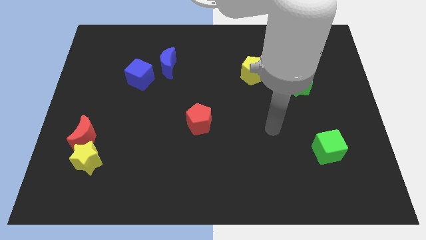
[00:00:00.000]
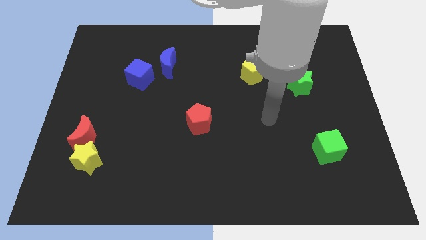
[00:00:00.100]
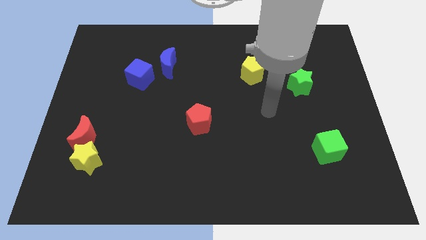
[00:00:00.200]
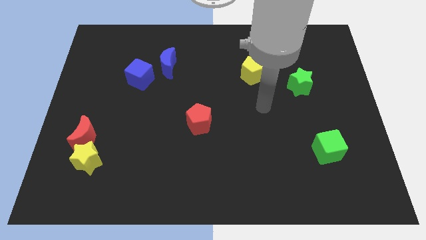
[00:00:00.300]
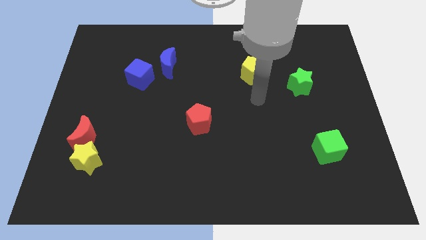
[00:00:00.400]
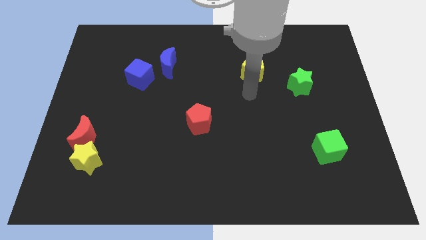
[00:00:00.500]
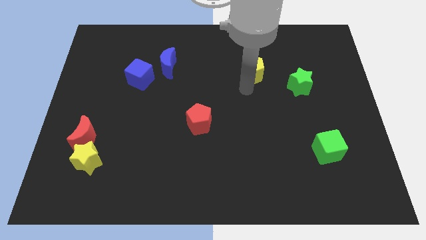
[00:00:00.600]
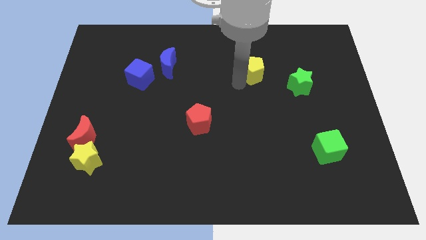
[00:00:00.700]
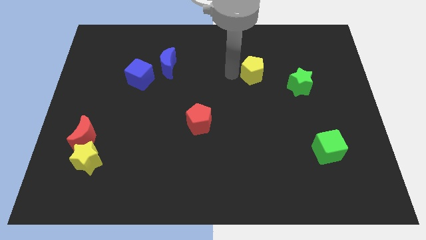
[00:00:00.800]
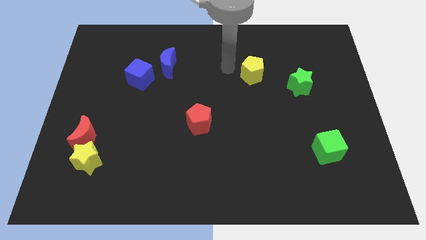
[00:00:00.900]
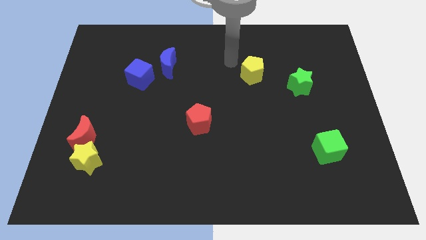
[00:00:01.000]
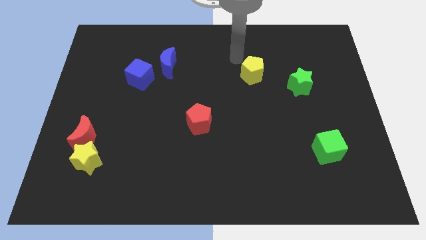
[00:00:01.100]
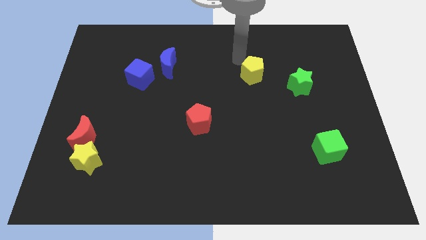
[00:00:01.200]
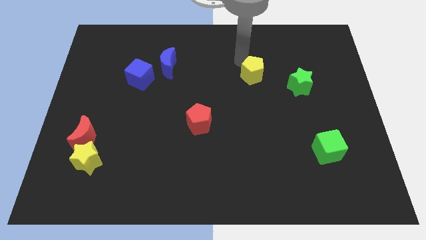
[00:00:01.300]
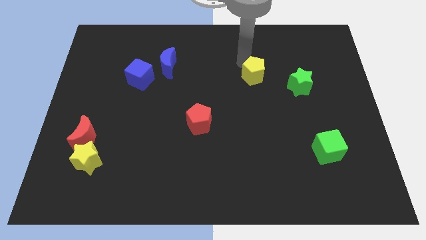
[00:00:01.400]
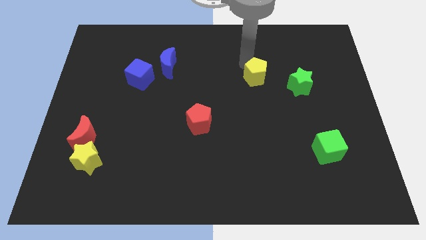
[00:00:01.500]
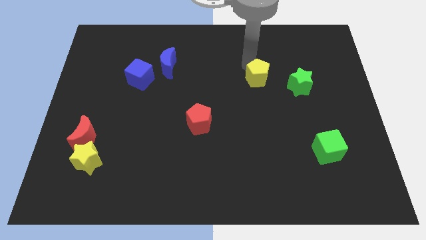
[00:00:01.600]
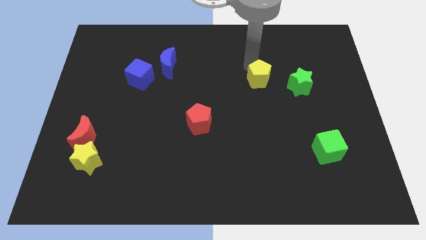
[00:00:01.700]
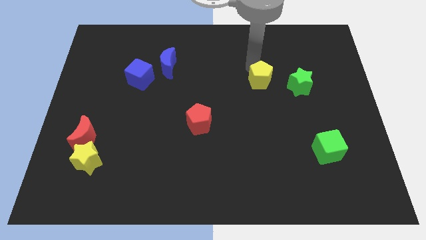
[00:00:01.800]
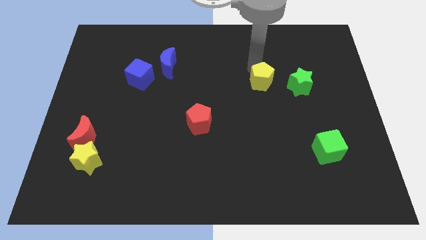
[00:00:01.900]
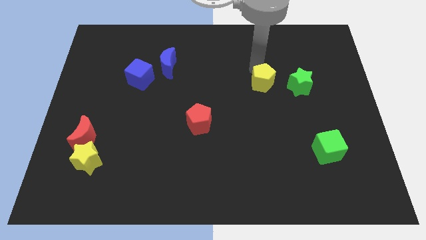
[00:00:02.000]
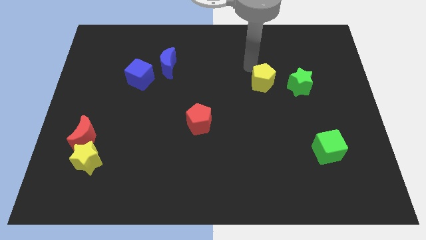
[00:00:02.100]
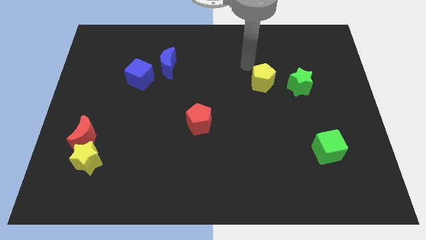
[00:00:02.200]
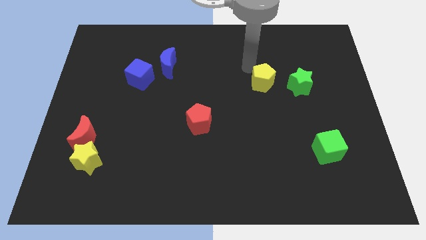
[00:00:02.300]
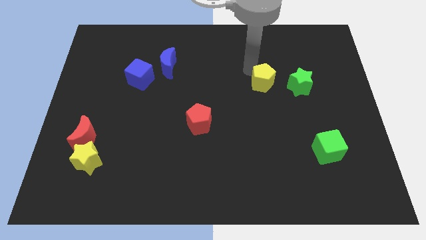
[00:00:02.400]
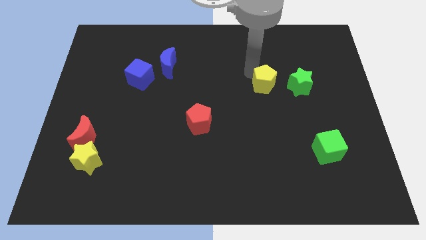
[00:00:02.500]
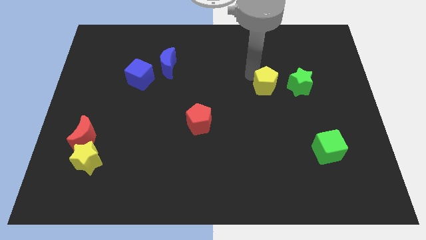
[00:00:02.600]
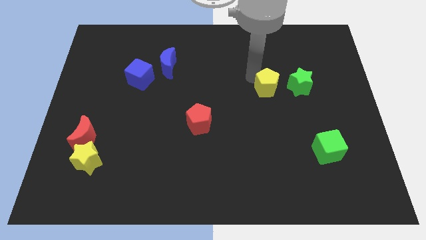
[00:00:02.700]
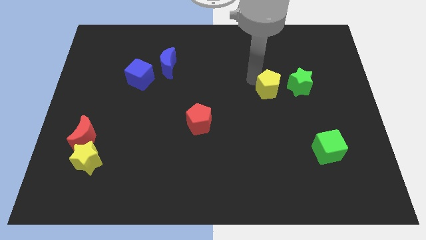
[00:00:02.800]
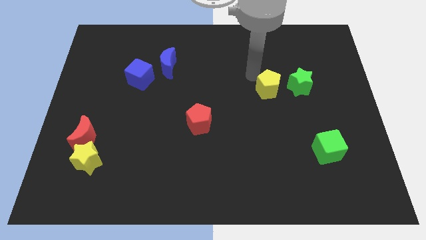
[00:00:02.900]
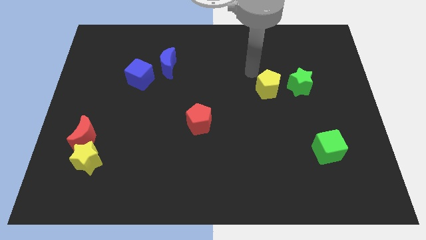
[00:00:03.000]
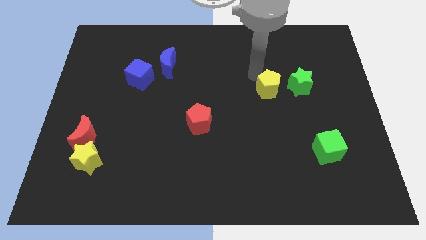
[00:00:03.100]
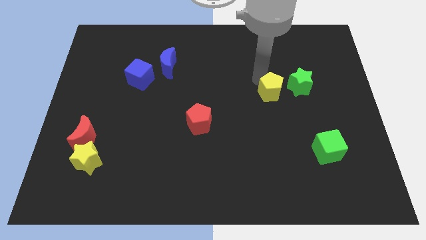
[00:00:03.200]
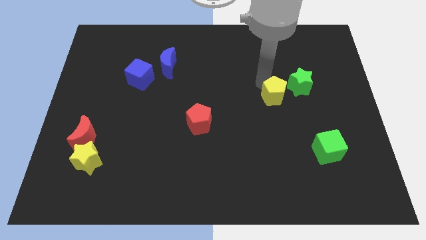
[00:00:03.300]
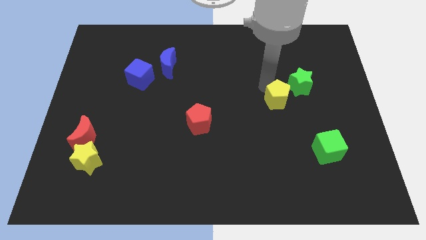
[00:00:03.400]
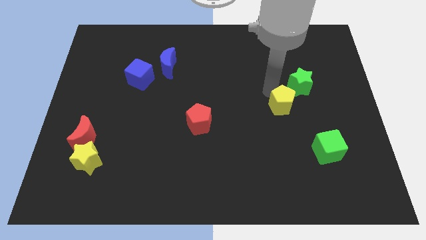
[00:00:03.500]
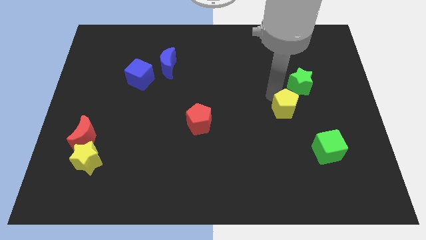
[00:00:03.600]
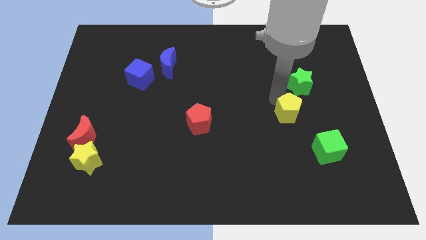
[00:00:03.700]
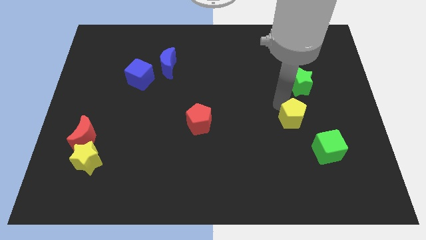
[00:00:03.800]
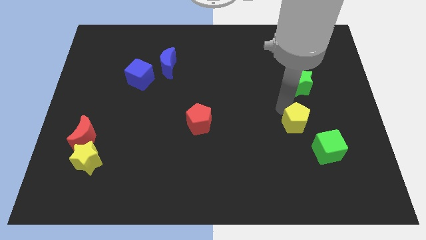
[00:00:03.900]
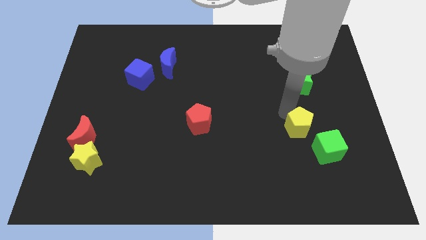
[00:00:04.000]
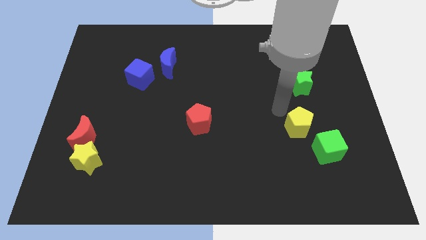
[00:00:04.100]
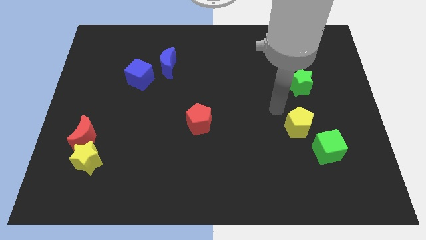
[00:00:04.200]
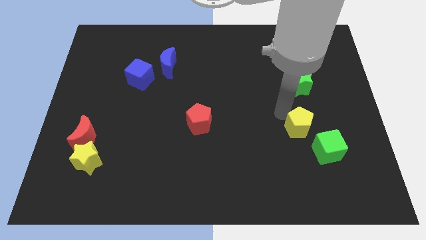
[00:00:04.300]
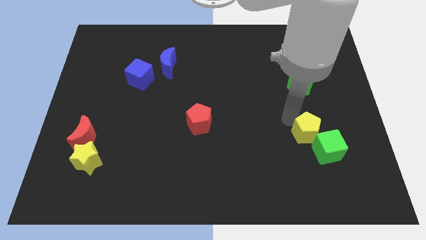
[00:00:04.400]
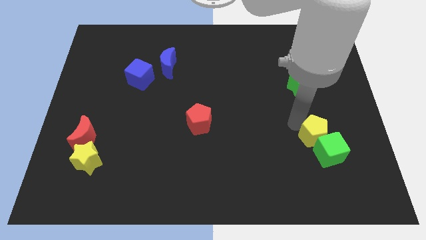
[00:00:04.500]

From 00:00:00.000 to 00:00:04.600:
move the yellow pentagon close to the green cube

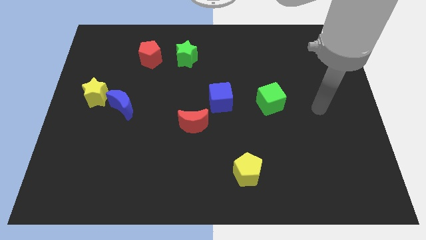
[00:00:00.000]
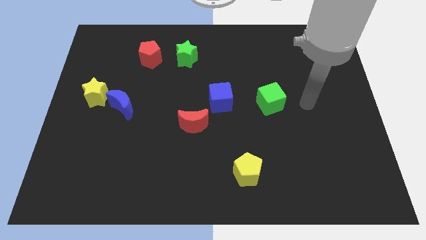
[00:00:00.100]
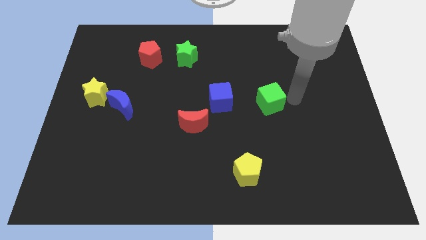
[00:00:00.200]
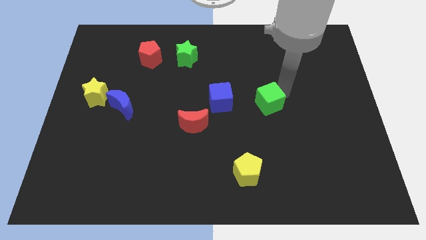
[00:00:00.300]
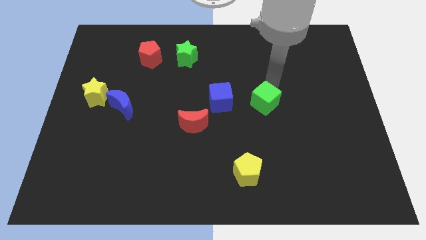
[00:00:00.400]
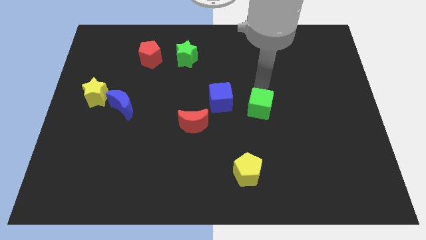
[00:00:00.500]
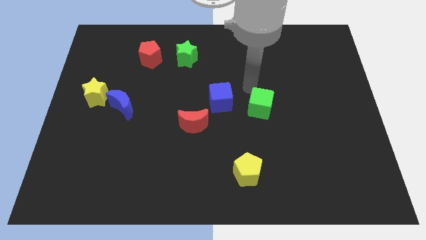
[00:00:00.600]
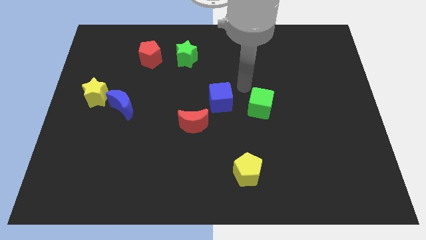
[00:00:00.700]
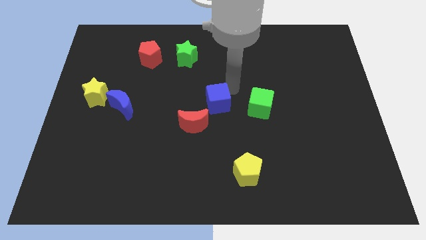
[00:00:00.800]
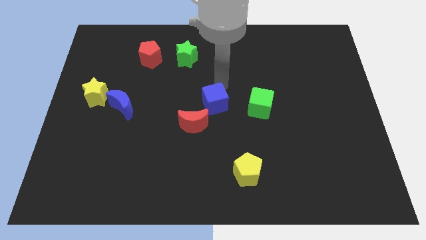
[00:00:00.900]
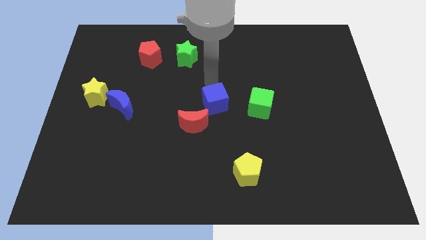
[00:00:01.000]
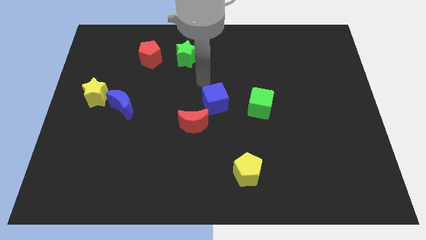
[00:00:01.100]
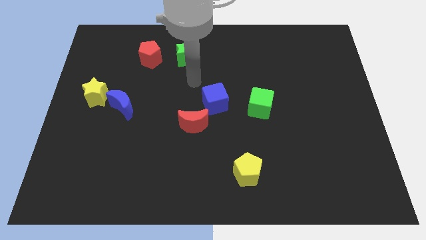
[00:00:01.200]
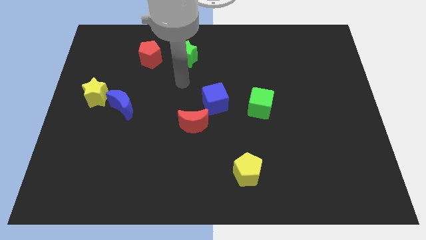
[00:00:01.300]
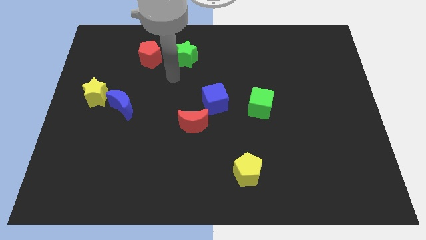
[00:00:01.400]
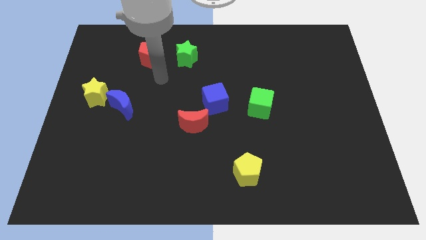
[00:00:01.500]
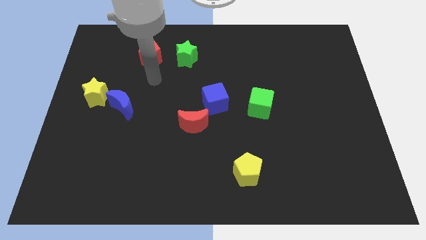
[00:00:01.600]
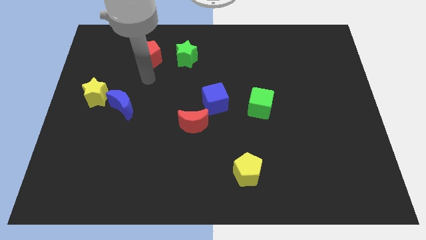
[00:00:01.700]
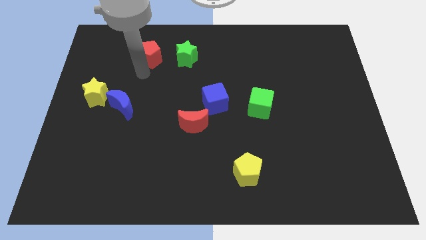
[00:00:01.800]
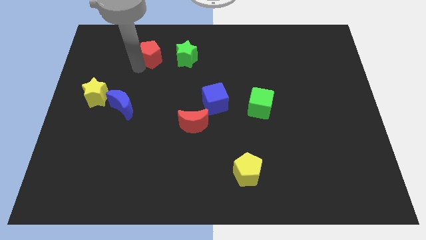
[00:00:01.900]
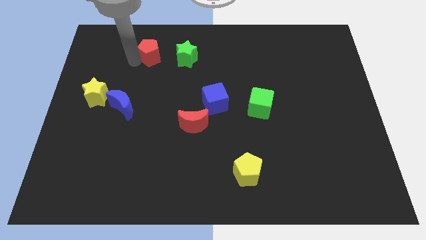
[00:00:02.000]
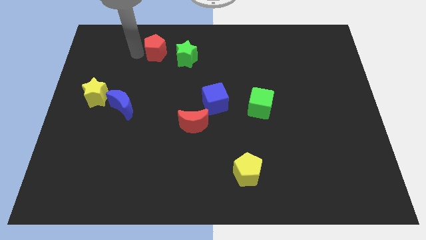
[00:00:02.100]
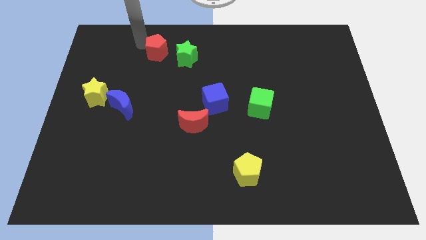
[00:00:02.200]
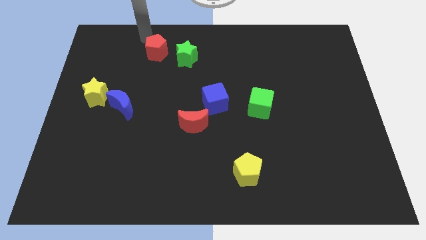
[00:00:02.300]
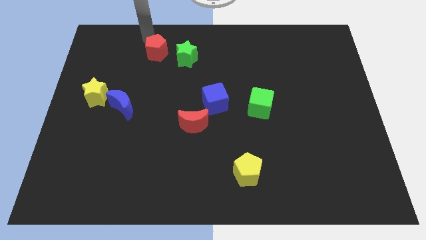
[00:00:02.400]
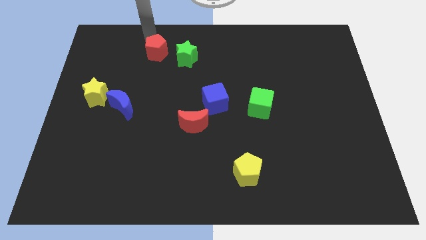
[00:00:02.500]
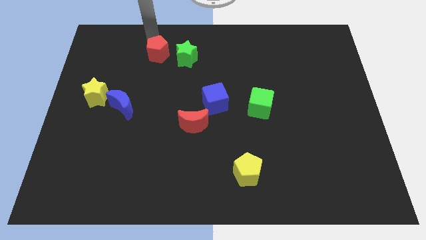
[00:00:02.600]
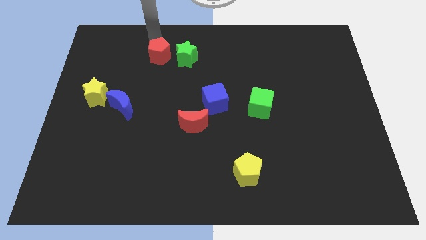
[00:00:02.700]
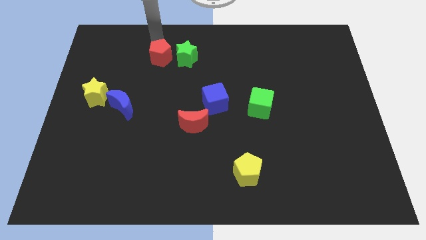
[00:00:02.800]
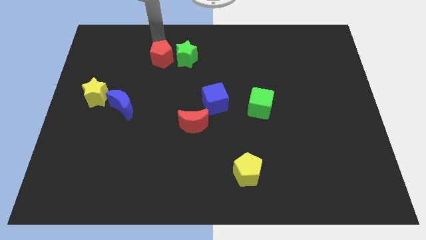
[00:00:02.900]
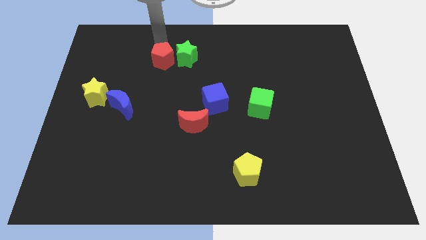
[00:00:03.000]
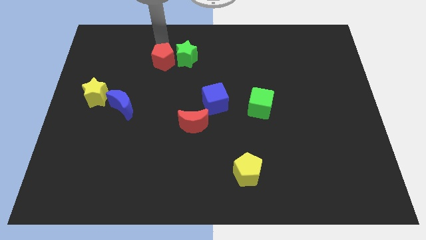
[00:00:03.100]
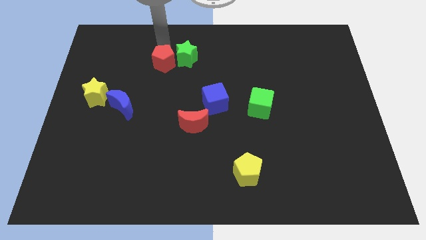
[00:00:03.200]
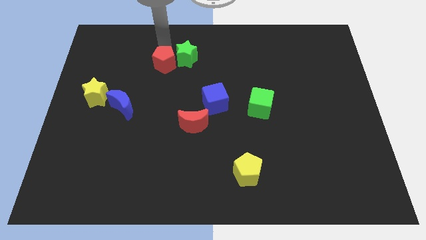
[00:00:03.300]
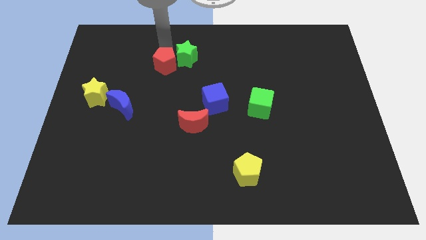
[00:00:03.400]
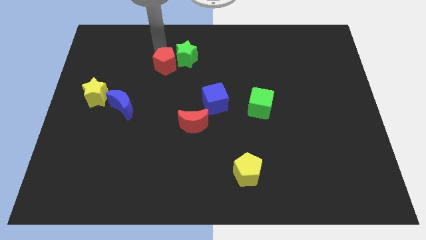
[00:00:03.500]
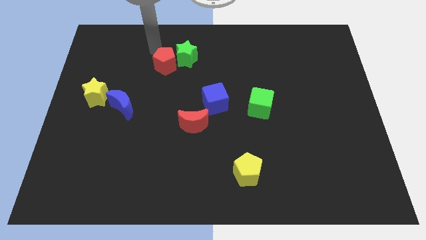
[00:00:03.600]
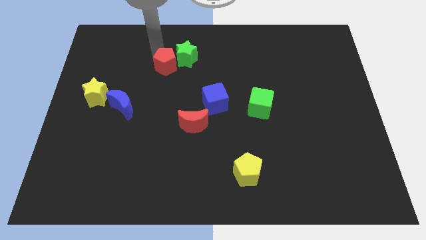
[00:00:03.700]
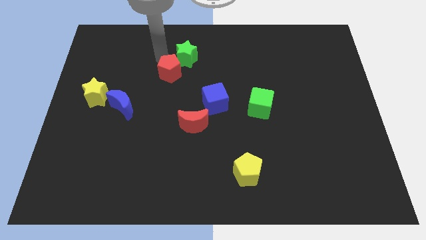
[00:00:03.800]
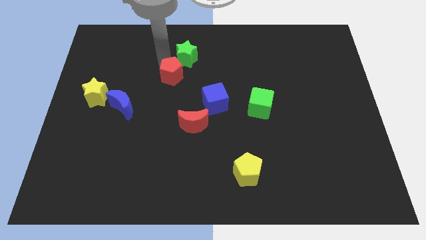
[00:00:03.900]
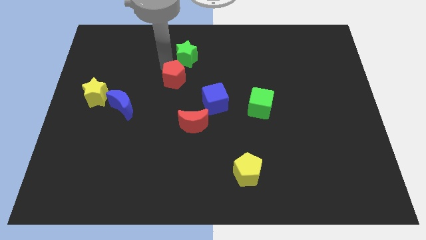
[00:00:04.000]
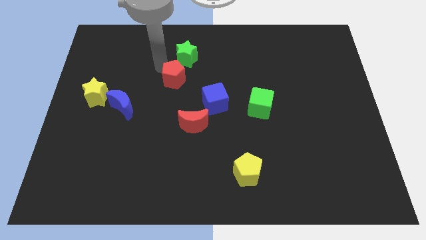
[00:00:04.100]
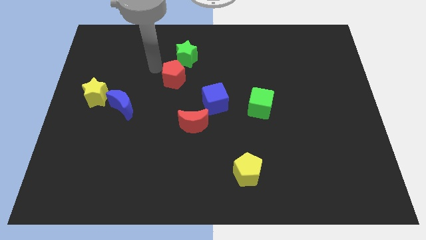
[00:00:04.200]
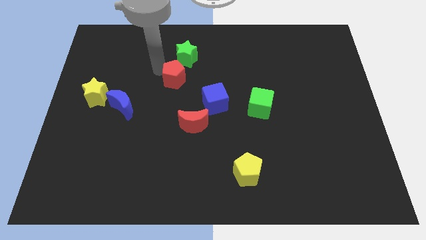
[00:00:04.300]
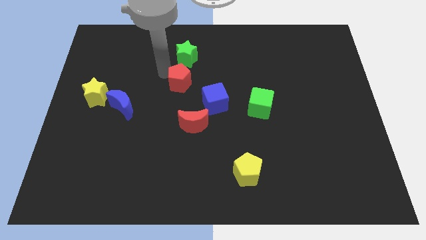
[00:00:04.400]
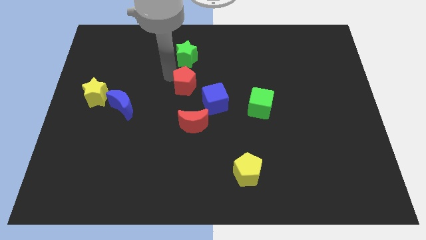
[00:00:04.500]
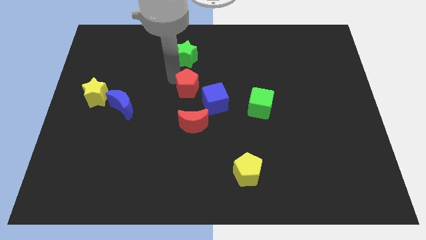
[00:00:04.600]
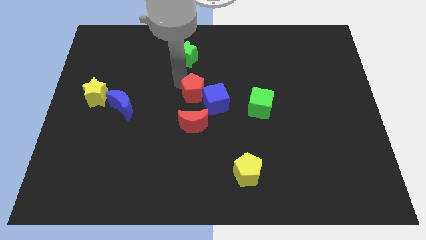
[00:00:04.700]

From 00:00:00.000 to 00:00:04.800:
slide the red pentagon to the blue cube
